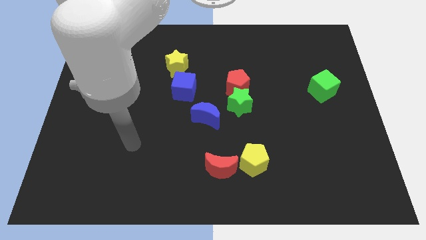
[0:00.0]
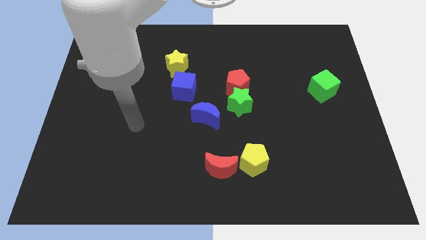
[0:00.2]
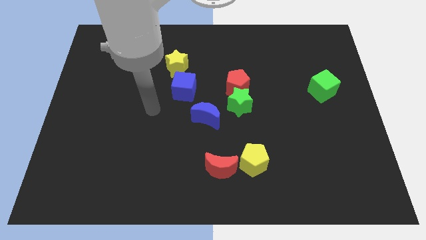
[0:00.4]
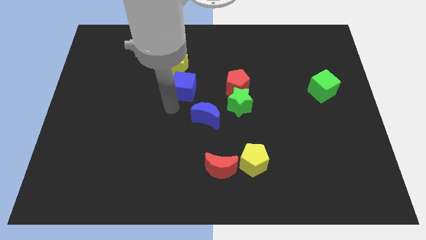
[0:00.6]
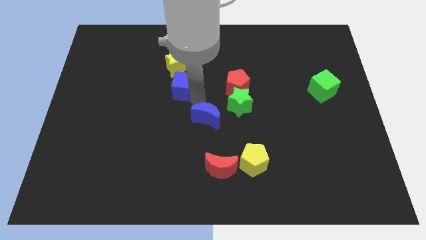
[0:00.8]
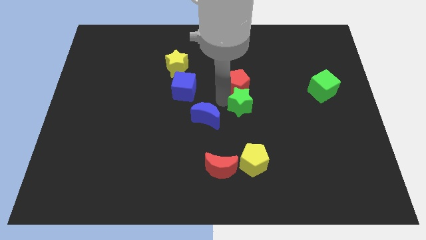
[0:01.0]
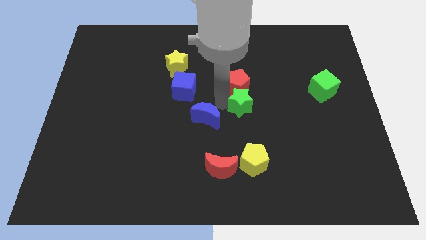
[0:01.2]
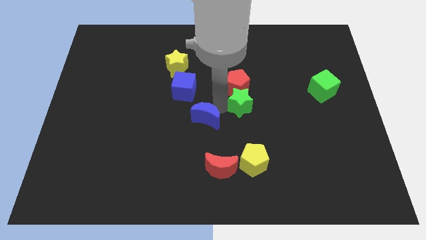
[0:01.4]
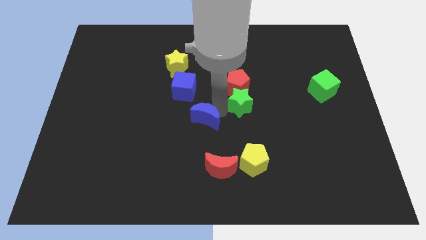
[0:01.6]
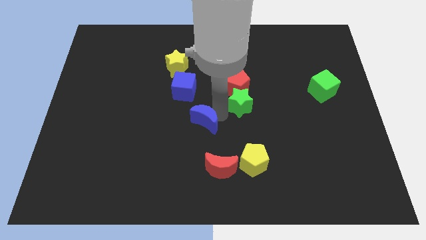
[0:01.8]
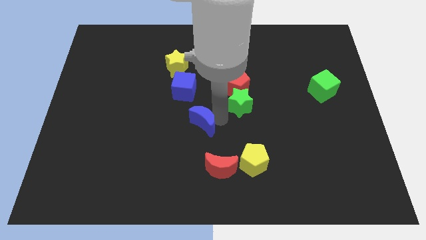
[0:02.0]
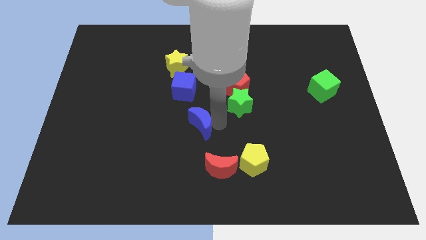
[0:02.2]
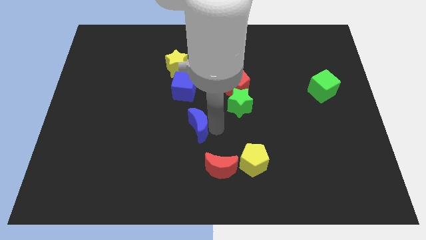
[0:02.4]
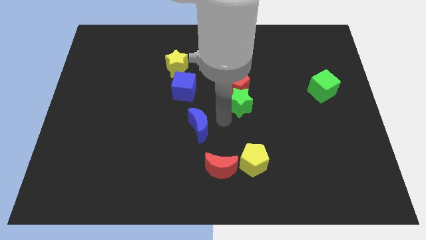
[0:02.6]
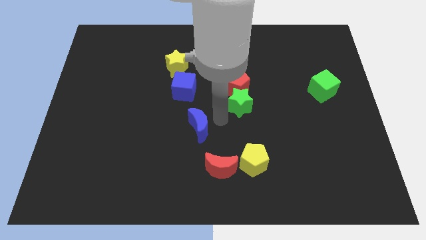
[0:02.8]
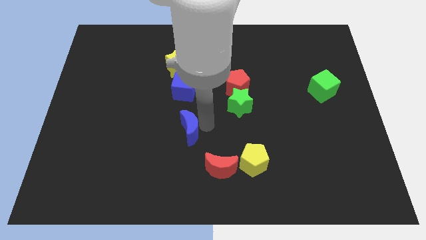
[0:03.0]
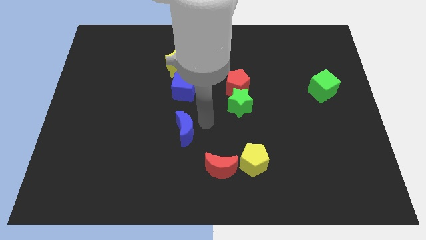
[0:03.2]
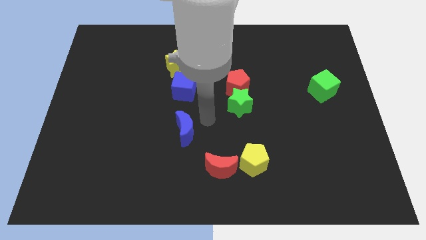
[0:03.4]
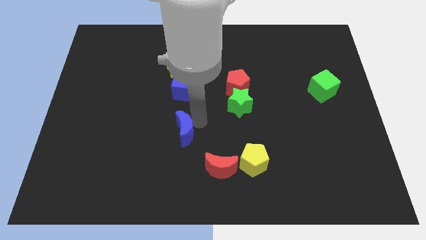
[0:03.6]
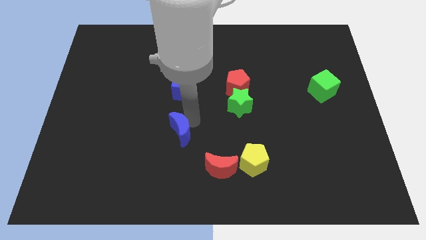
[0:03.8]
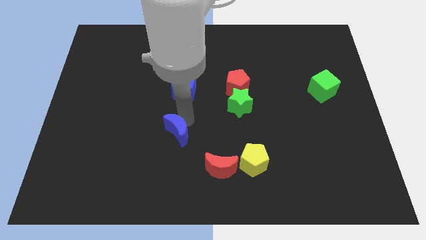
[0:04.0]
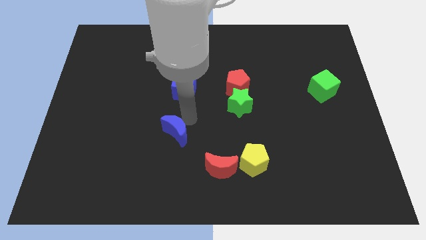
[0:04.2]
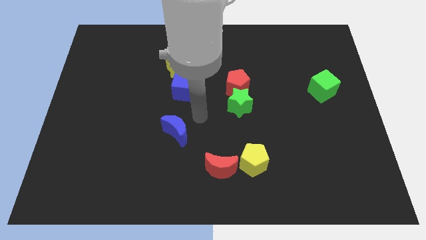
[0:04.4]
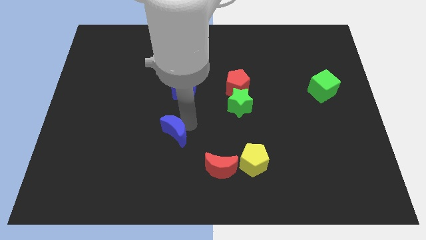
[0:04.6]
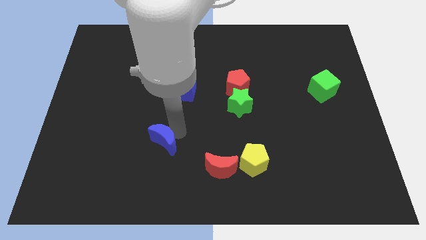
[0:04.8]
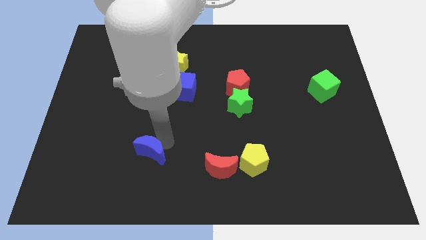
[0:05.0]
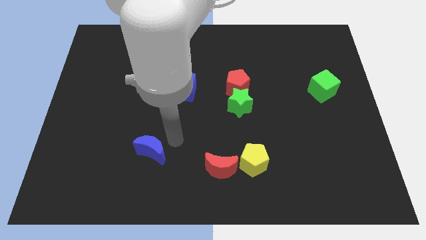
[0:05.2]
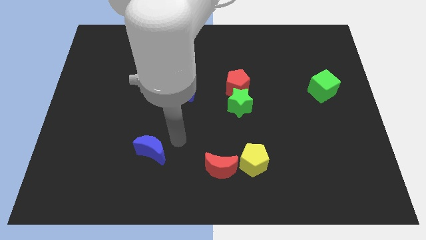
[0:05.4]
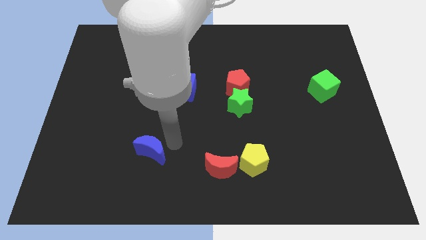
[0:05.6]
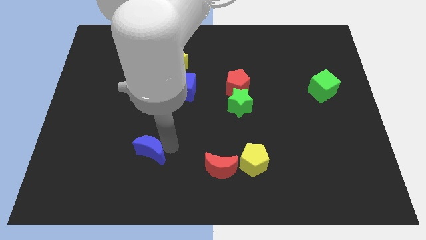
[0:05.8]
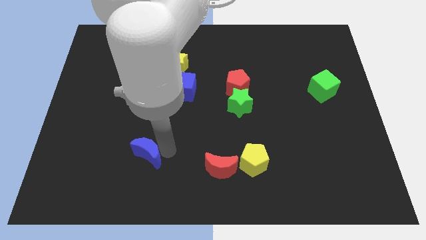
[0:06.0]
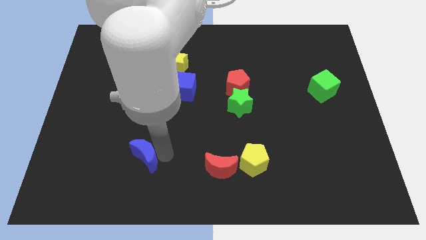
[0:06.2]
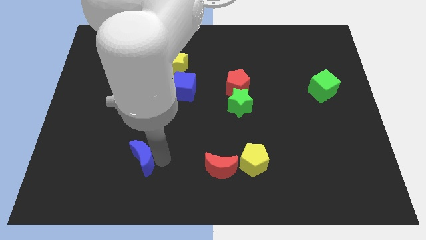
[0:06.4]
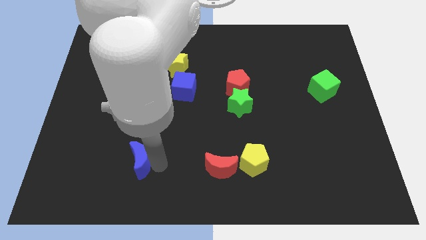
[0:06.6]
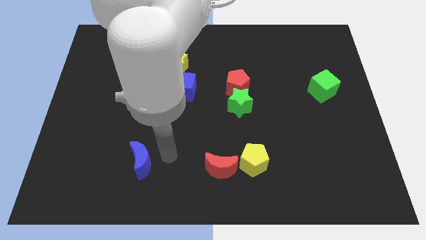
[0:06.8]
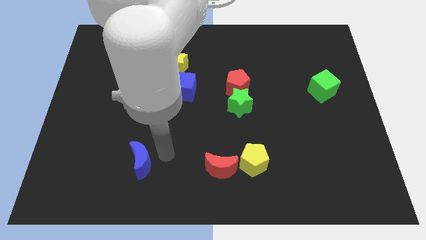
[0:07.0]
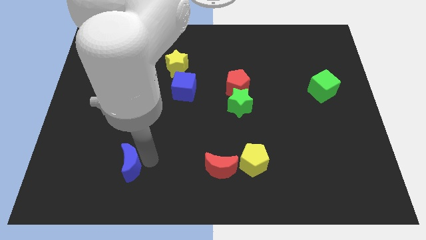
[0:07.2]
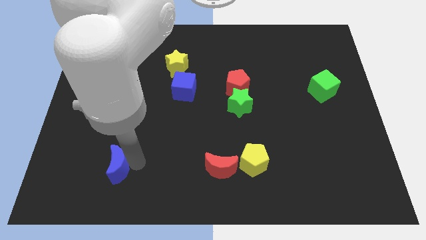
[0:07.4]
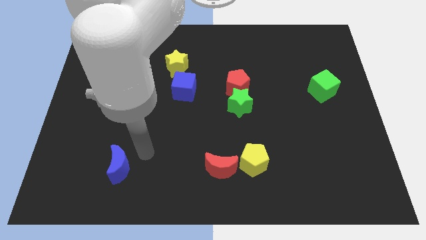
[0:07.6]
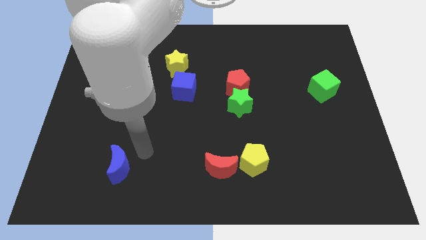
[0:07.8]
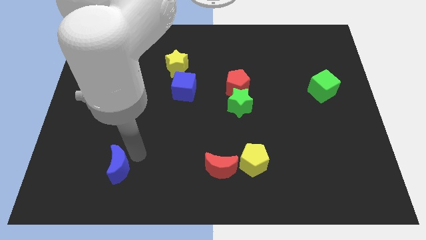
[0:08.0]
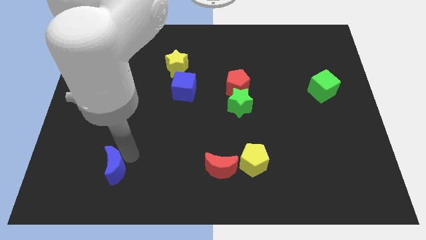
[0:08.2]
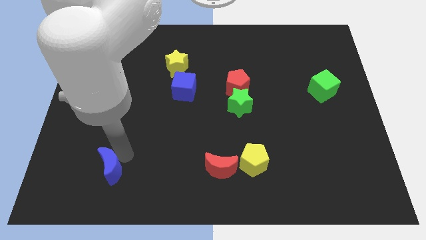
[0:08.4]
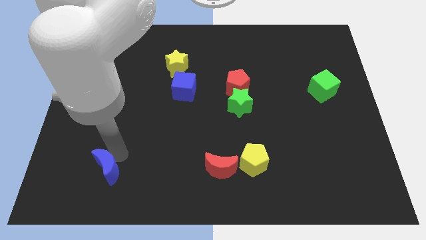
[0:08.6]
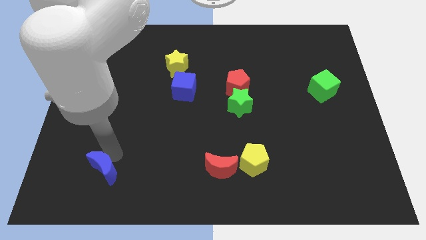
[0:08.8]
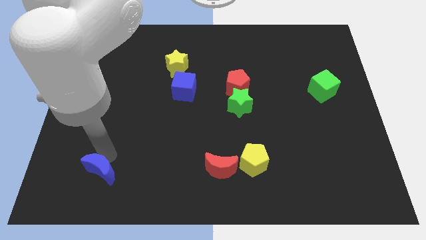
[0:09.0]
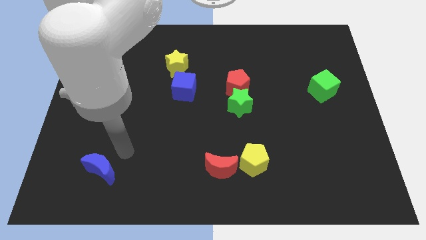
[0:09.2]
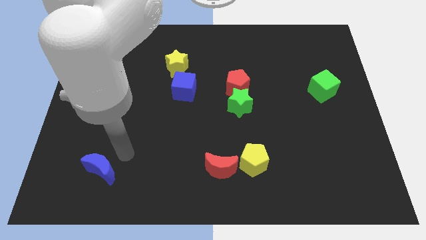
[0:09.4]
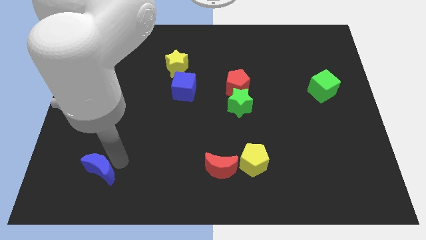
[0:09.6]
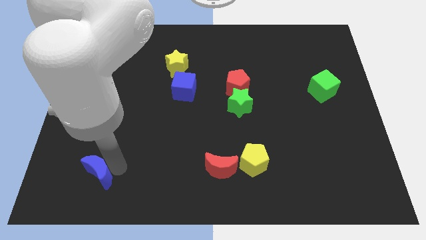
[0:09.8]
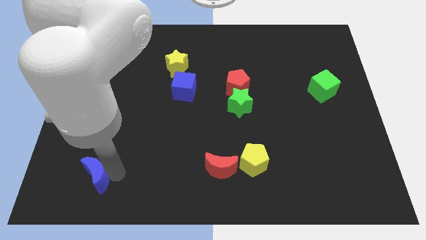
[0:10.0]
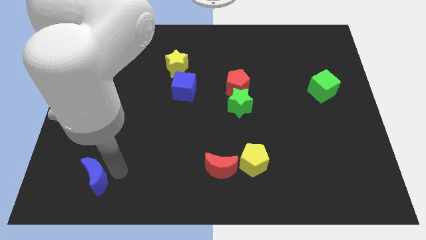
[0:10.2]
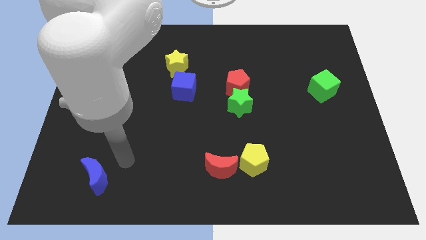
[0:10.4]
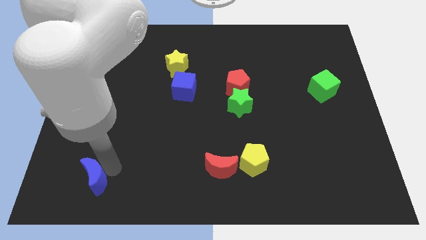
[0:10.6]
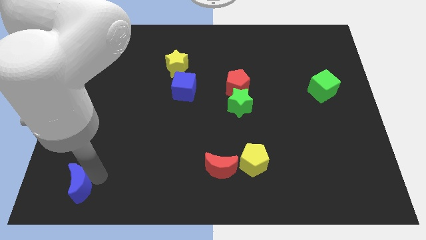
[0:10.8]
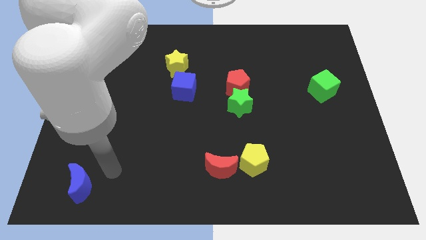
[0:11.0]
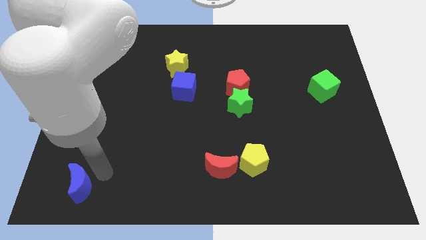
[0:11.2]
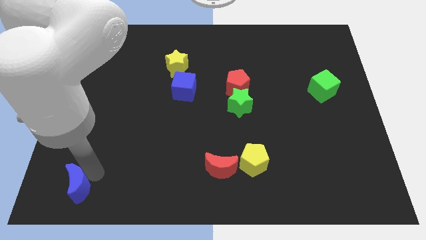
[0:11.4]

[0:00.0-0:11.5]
push the blue moon to the lower left corner

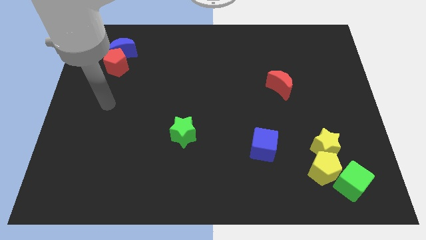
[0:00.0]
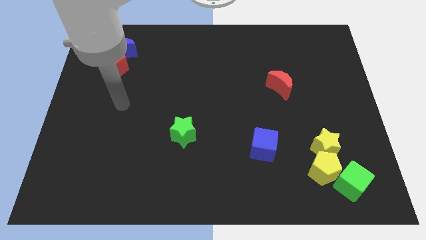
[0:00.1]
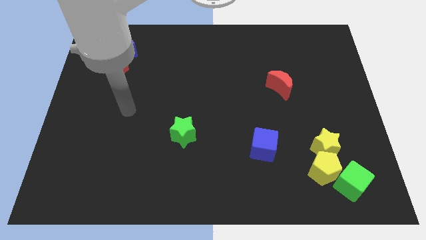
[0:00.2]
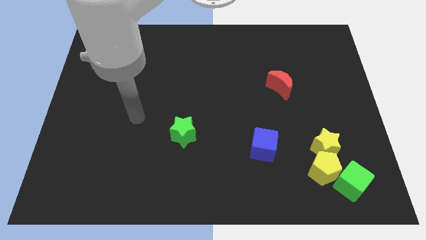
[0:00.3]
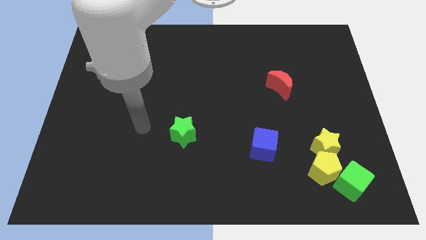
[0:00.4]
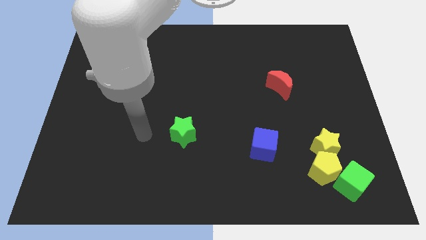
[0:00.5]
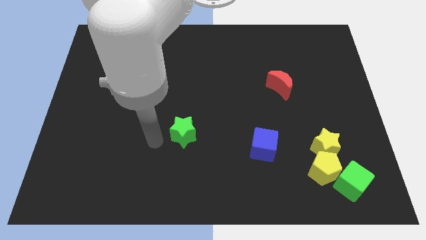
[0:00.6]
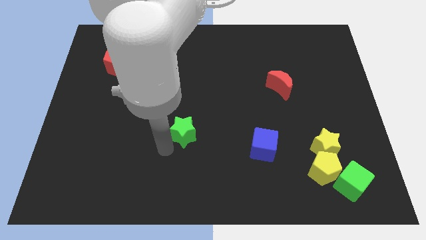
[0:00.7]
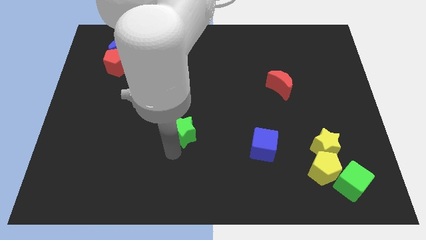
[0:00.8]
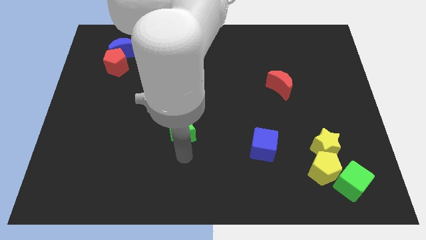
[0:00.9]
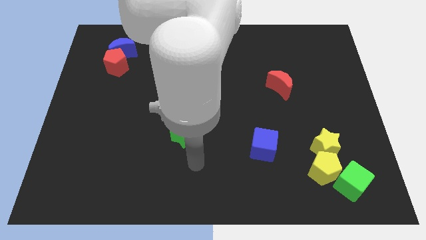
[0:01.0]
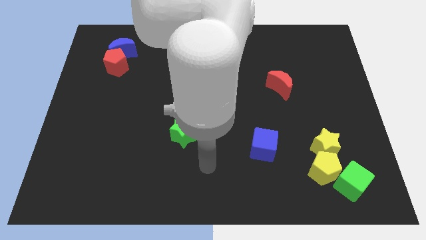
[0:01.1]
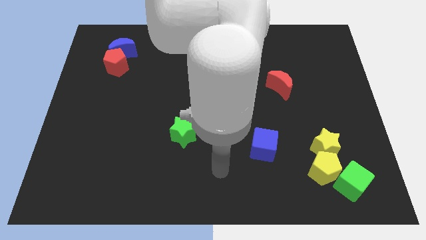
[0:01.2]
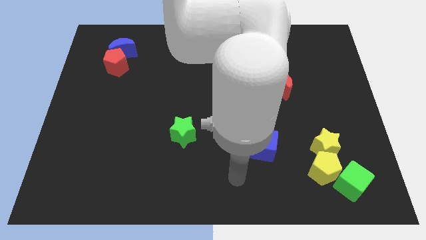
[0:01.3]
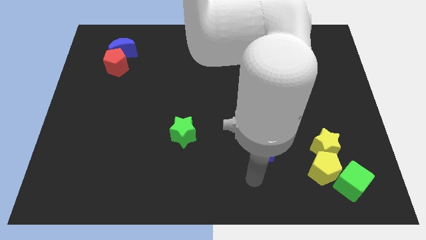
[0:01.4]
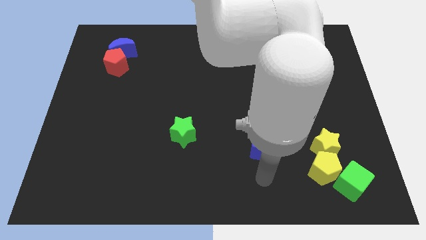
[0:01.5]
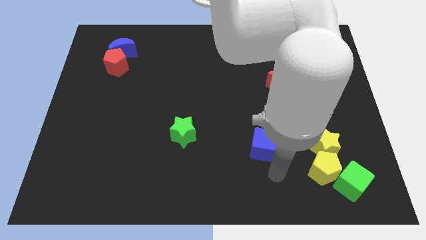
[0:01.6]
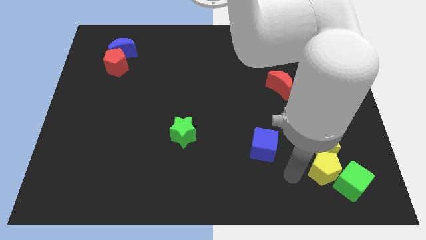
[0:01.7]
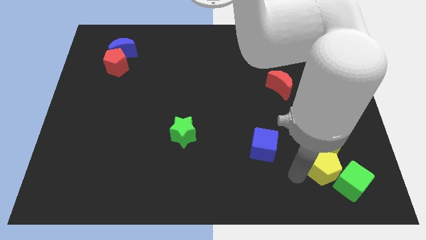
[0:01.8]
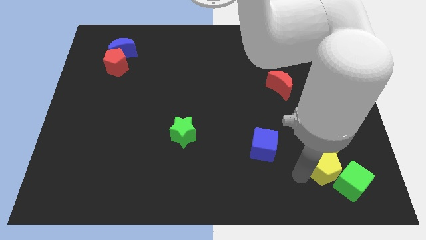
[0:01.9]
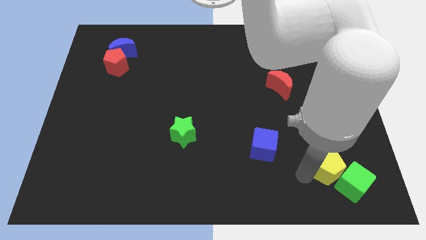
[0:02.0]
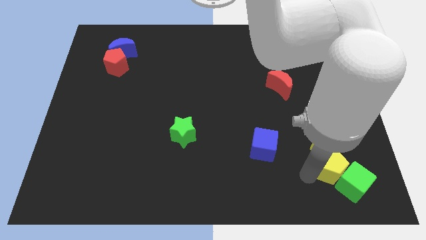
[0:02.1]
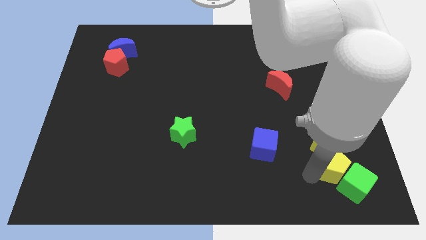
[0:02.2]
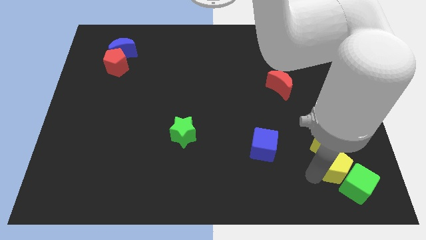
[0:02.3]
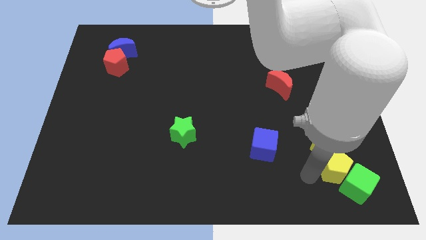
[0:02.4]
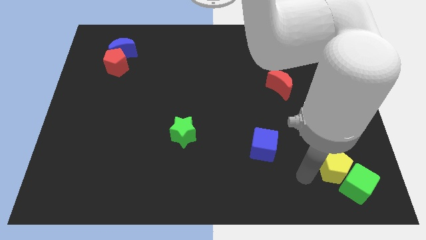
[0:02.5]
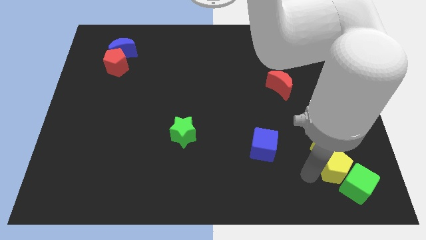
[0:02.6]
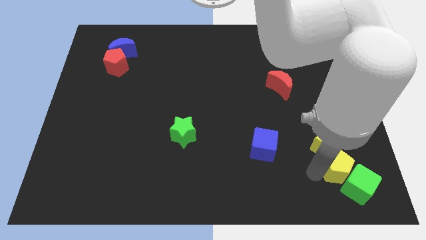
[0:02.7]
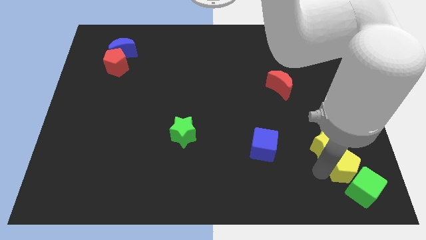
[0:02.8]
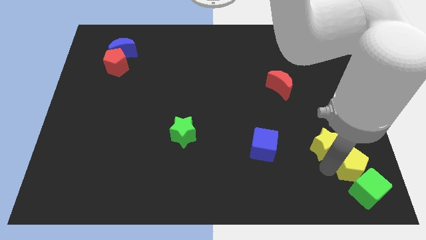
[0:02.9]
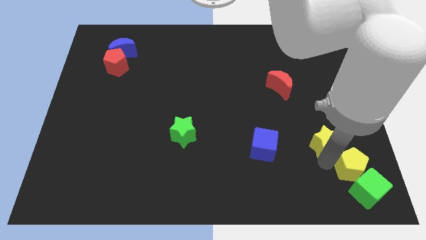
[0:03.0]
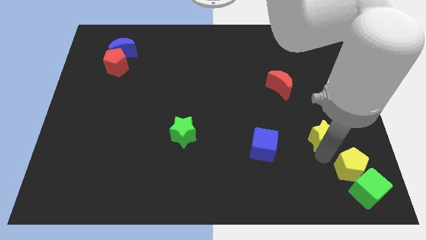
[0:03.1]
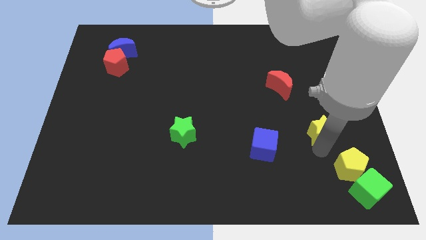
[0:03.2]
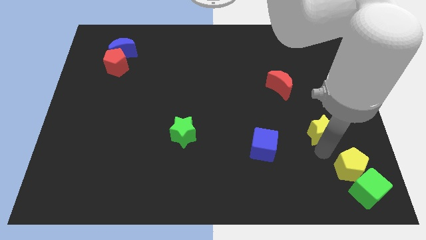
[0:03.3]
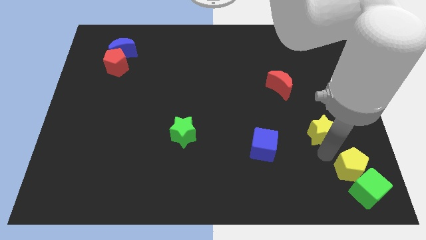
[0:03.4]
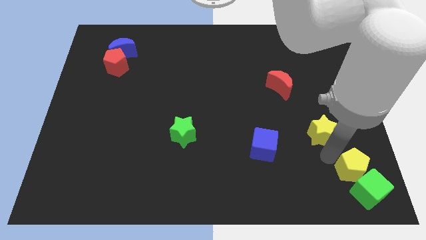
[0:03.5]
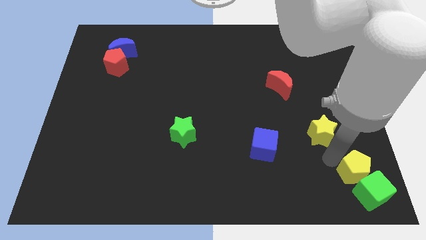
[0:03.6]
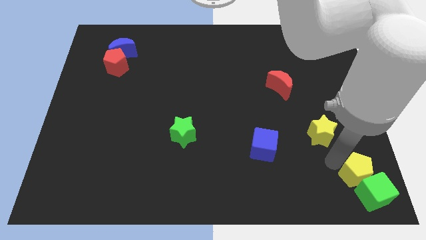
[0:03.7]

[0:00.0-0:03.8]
move the yellow pentagon to the lower right corner
